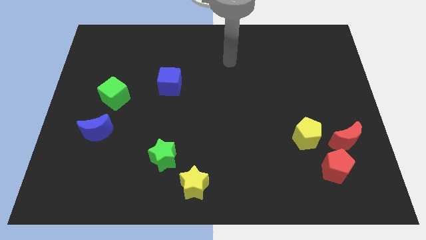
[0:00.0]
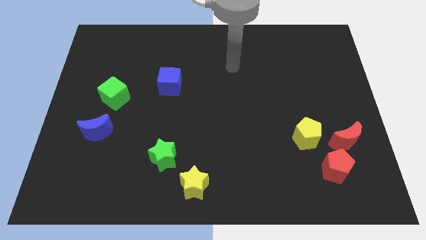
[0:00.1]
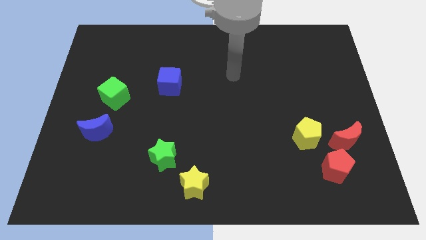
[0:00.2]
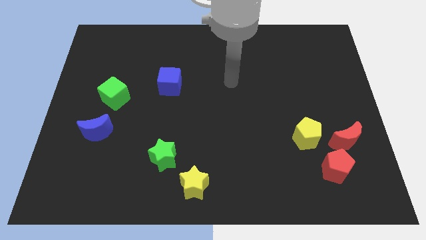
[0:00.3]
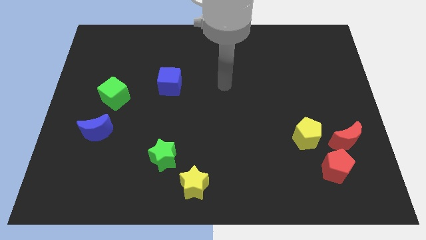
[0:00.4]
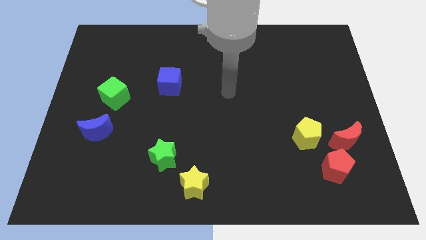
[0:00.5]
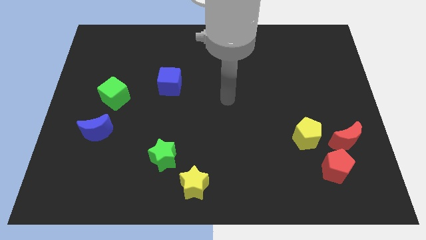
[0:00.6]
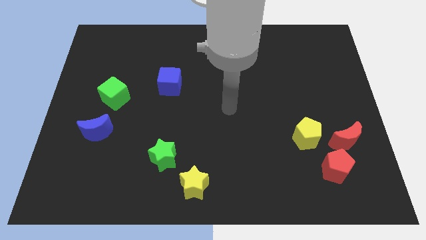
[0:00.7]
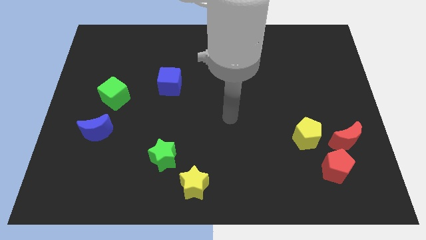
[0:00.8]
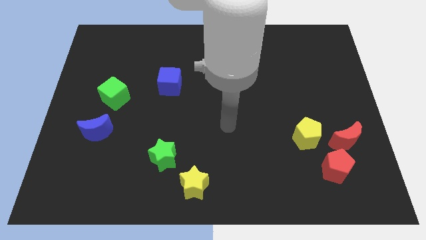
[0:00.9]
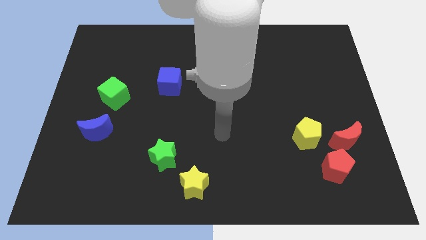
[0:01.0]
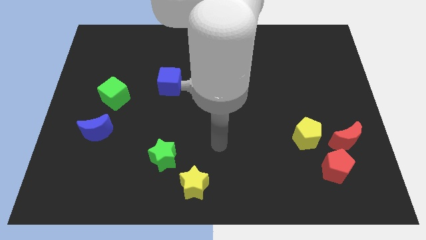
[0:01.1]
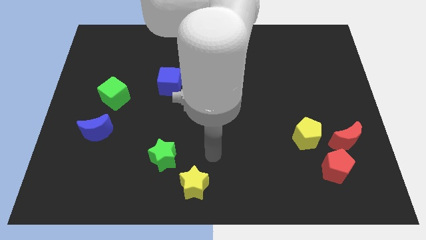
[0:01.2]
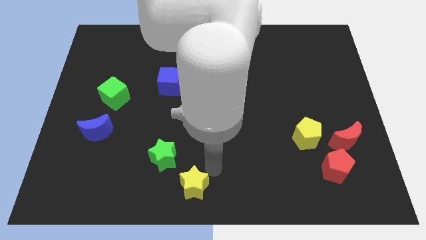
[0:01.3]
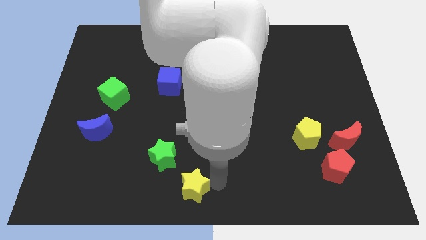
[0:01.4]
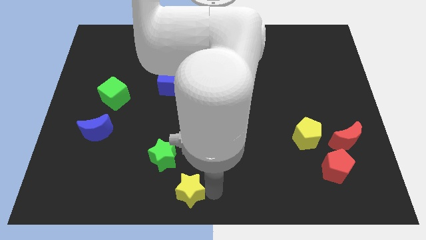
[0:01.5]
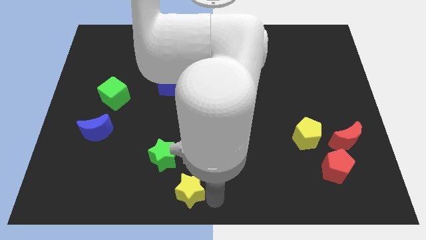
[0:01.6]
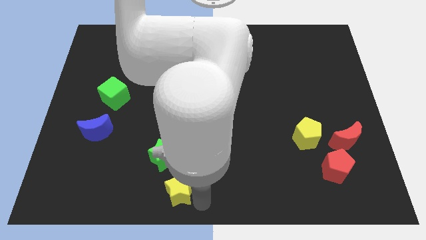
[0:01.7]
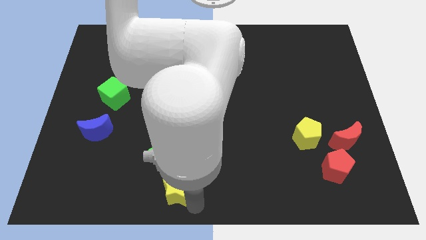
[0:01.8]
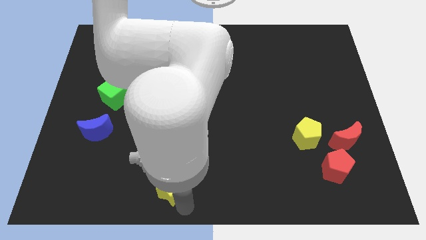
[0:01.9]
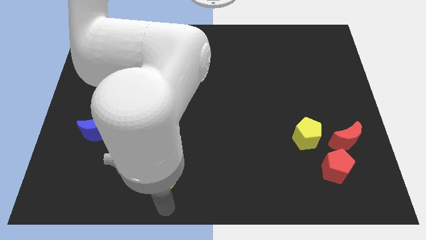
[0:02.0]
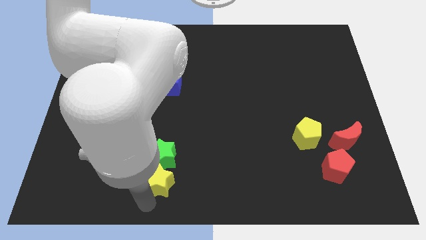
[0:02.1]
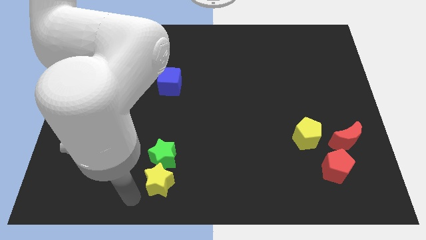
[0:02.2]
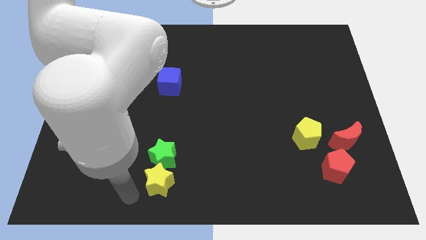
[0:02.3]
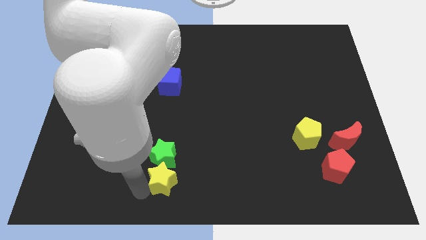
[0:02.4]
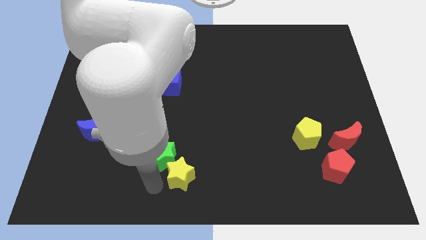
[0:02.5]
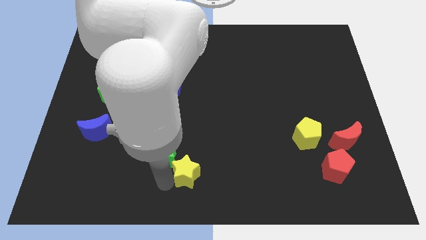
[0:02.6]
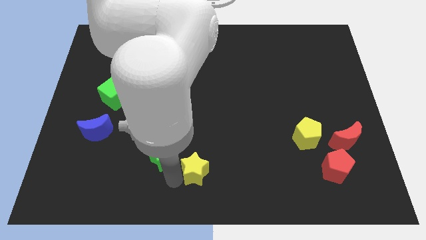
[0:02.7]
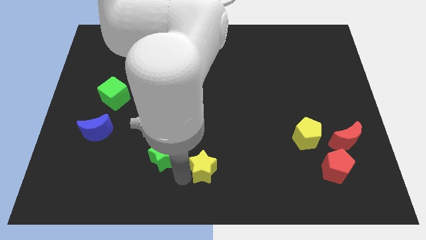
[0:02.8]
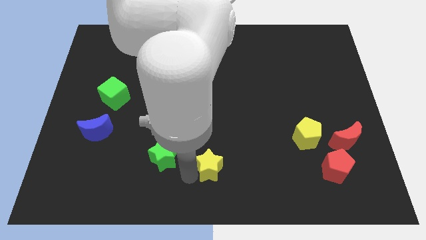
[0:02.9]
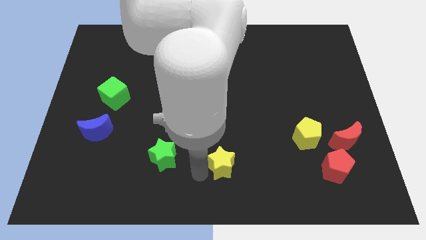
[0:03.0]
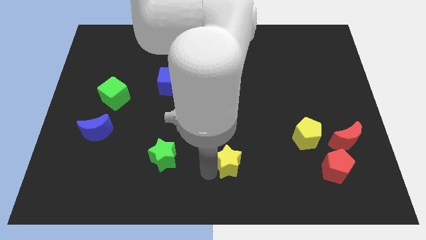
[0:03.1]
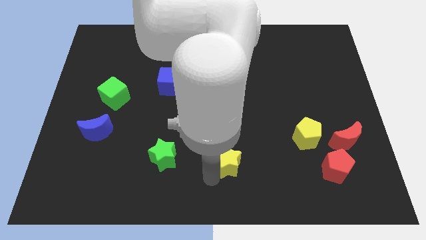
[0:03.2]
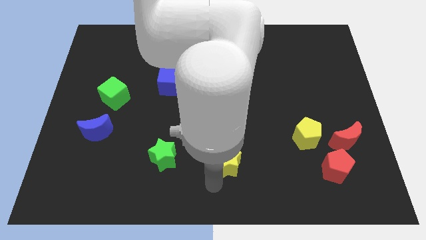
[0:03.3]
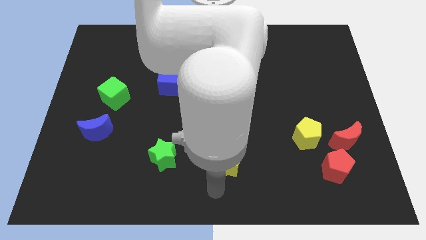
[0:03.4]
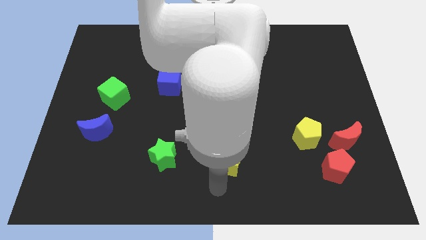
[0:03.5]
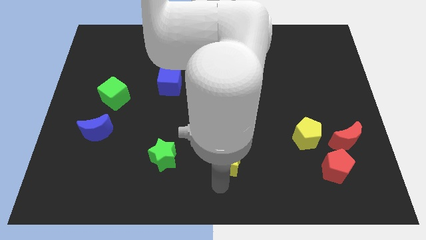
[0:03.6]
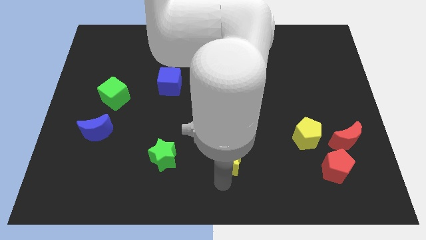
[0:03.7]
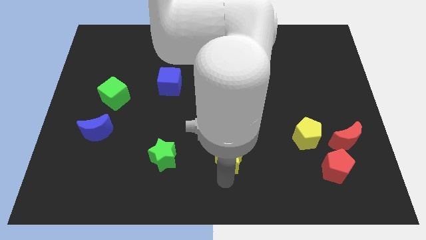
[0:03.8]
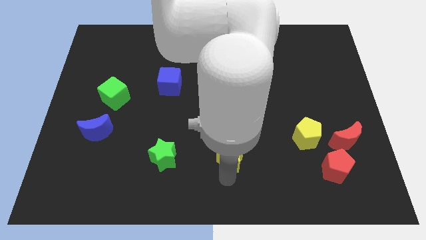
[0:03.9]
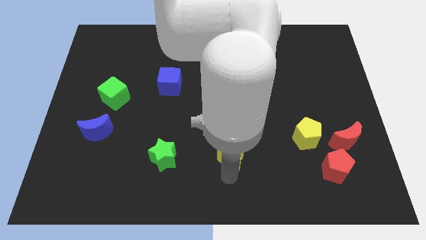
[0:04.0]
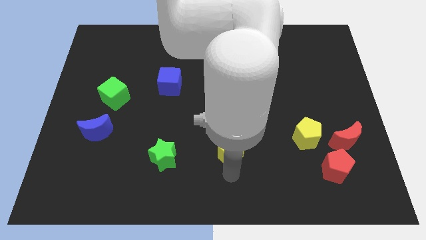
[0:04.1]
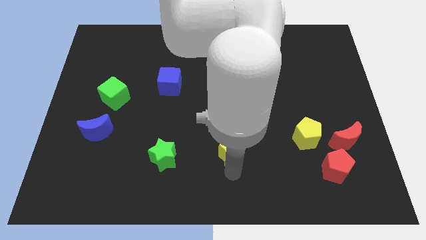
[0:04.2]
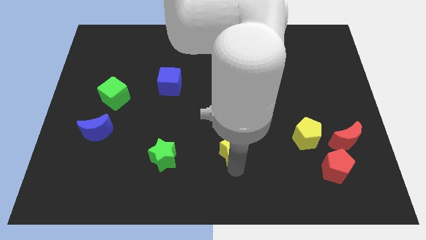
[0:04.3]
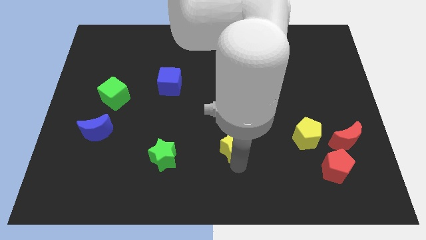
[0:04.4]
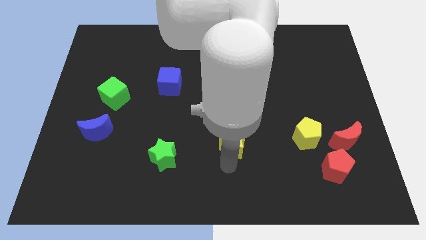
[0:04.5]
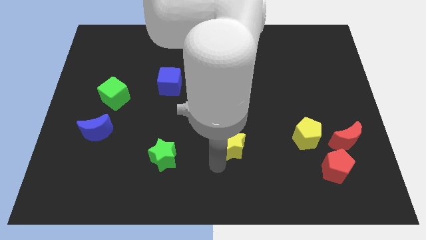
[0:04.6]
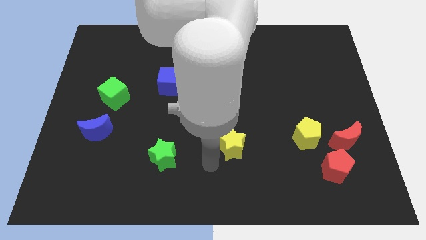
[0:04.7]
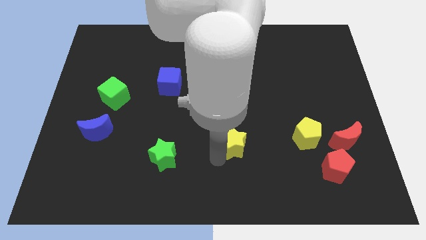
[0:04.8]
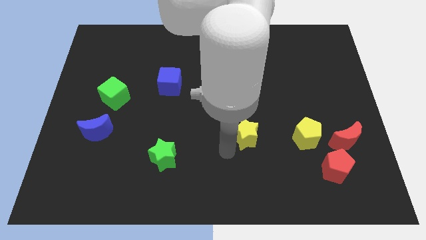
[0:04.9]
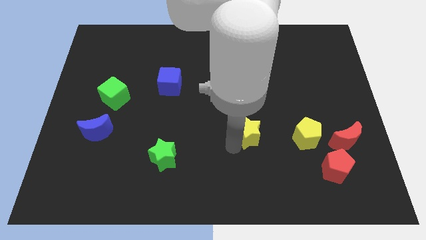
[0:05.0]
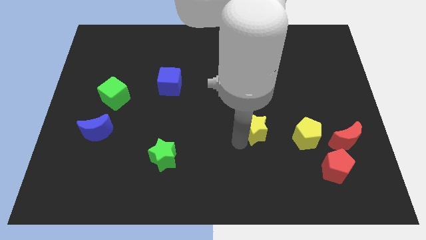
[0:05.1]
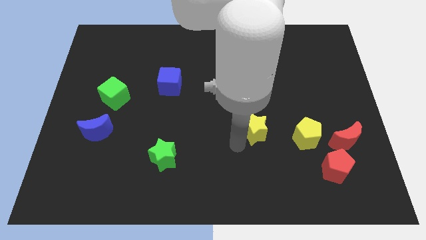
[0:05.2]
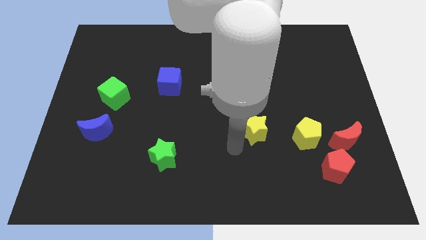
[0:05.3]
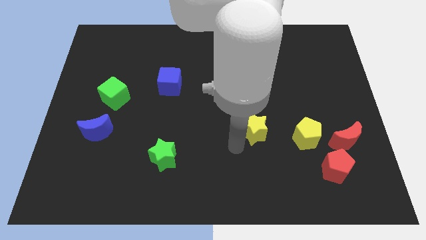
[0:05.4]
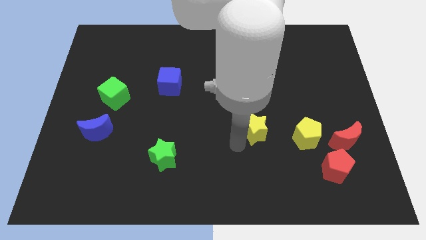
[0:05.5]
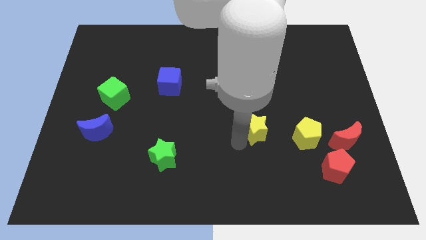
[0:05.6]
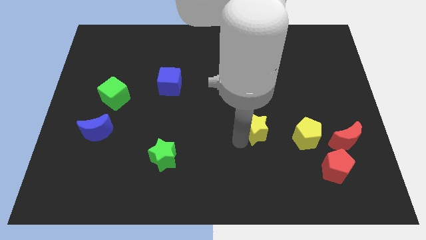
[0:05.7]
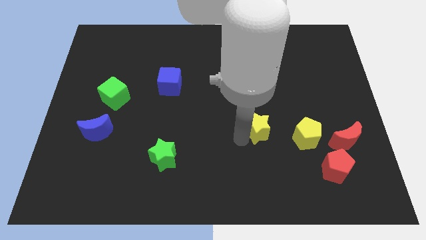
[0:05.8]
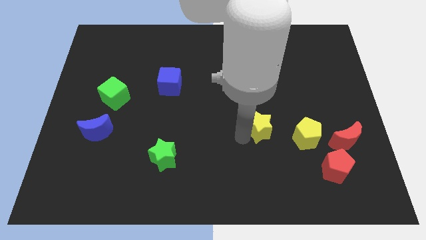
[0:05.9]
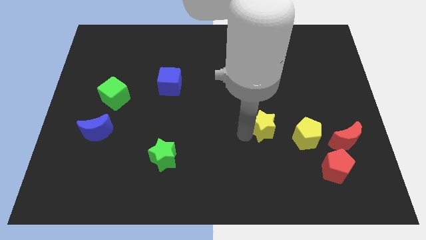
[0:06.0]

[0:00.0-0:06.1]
slide the yellow star up and then right

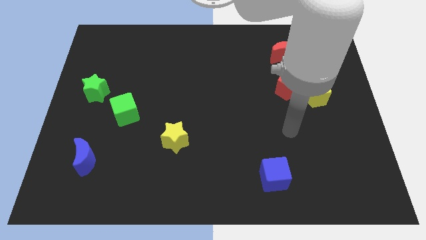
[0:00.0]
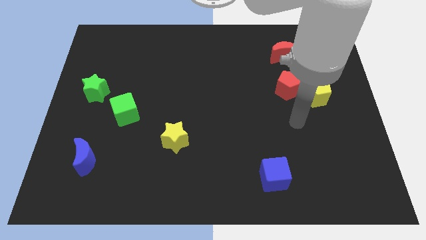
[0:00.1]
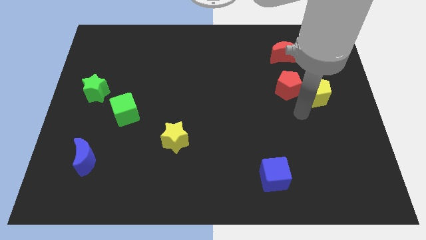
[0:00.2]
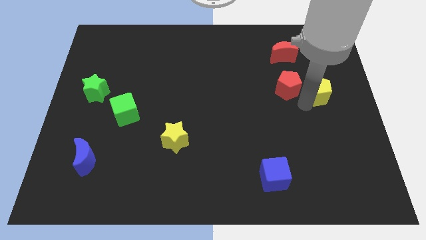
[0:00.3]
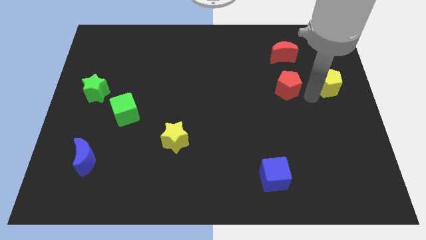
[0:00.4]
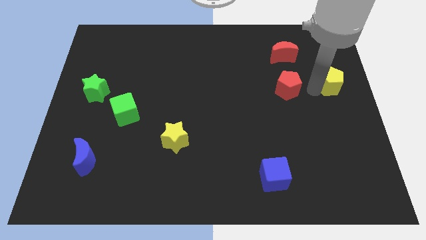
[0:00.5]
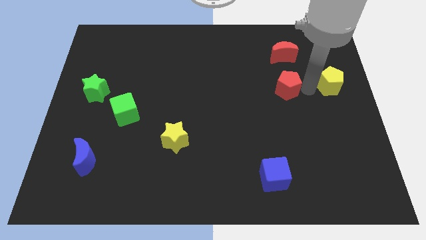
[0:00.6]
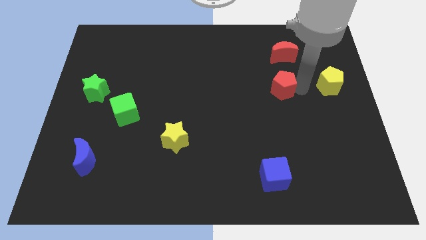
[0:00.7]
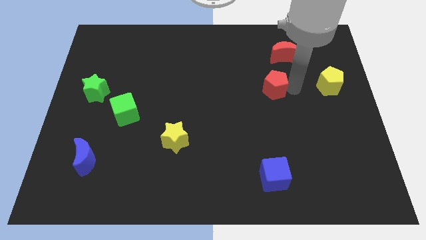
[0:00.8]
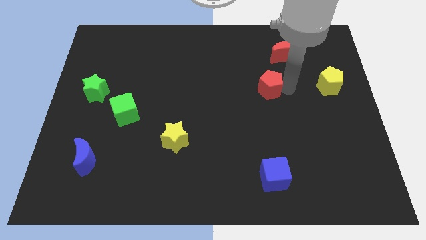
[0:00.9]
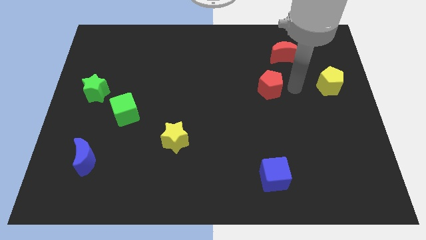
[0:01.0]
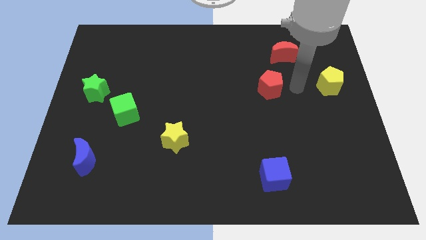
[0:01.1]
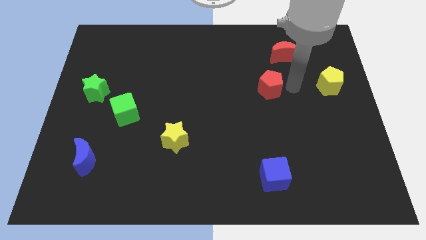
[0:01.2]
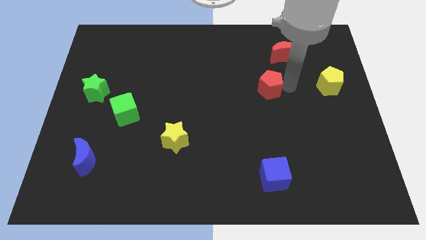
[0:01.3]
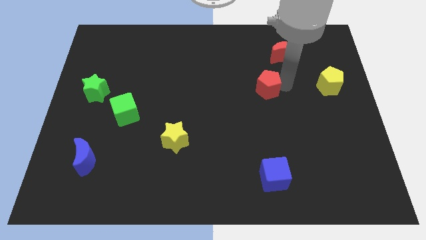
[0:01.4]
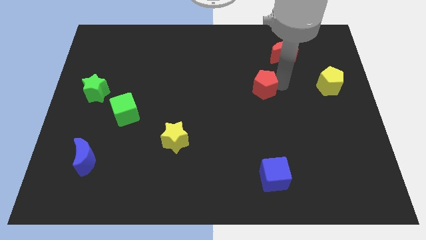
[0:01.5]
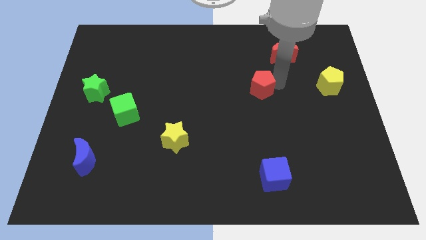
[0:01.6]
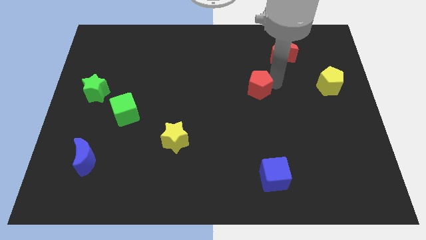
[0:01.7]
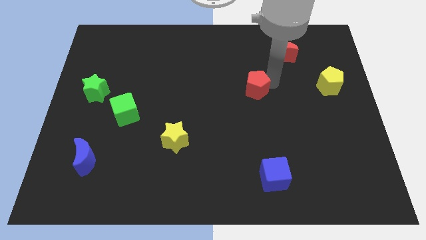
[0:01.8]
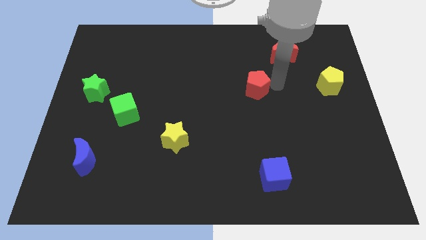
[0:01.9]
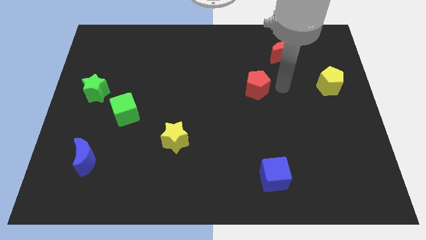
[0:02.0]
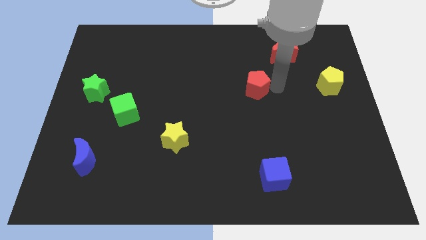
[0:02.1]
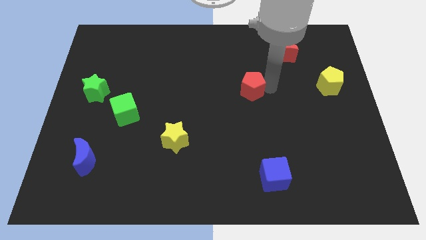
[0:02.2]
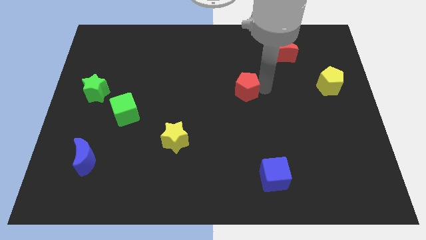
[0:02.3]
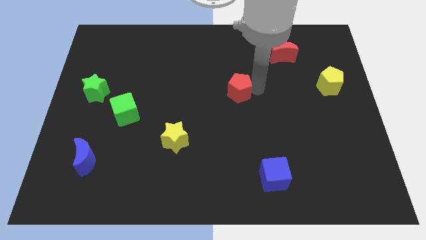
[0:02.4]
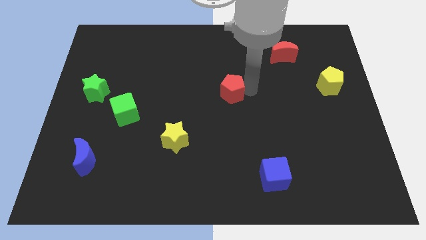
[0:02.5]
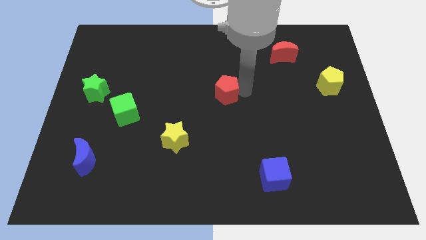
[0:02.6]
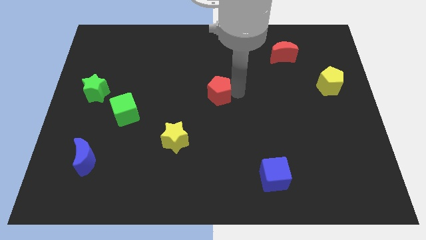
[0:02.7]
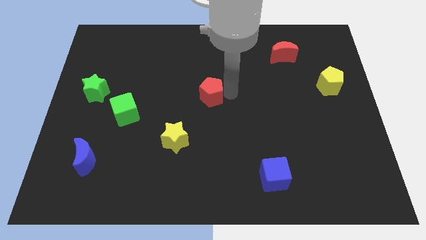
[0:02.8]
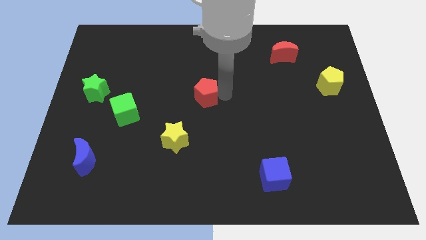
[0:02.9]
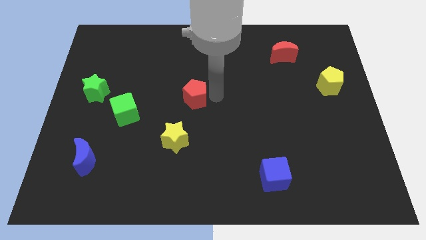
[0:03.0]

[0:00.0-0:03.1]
slide the red pentagon to the left
